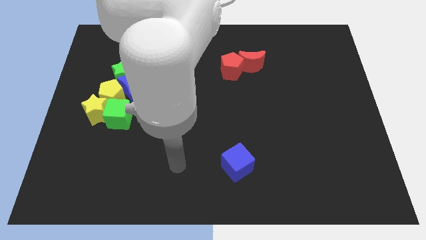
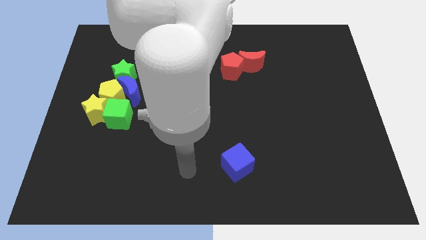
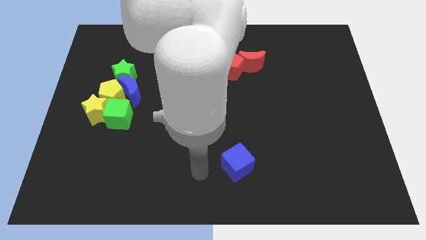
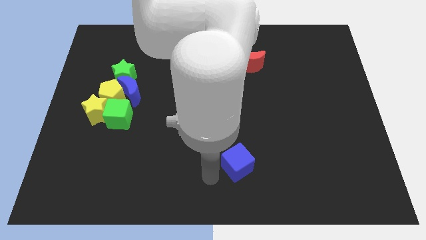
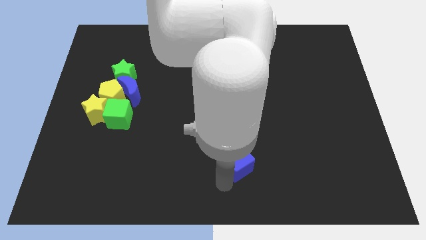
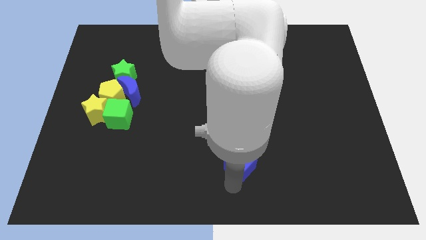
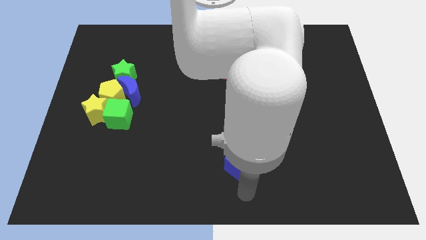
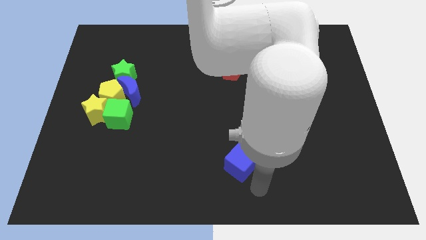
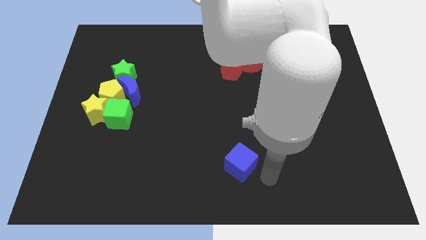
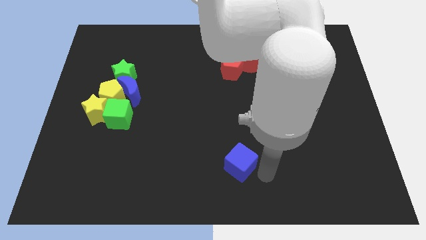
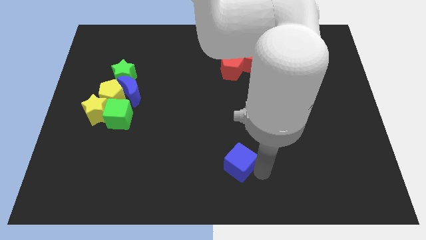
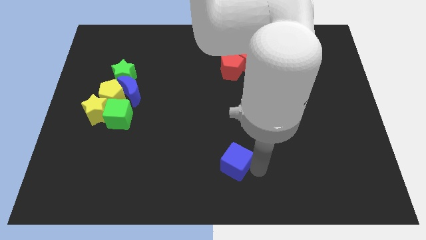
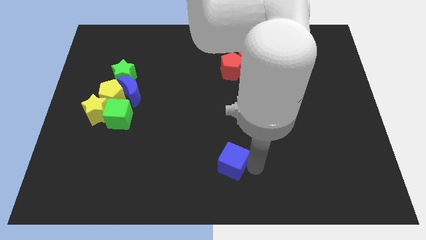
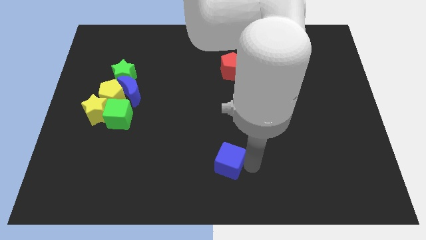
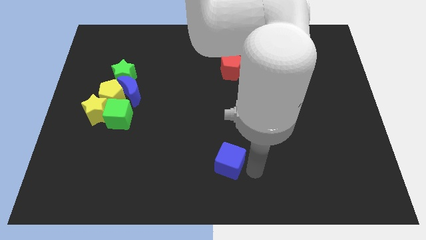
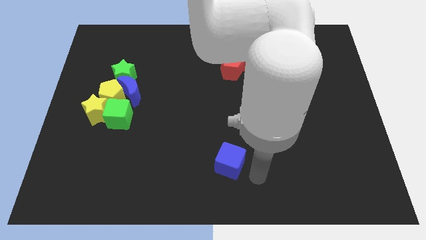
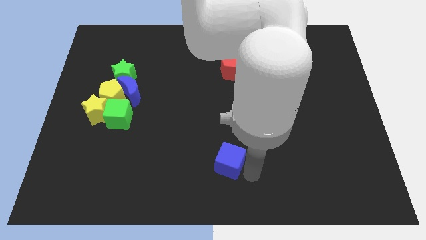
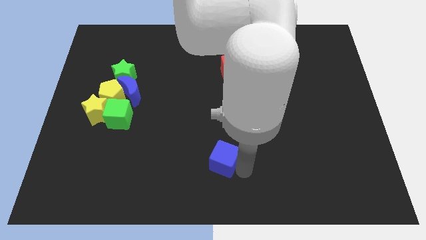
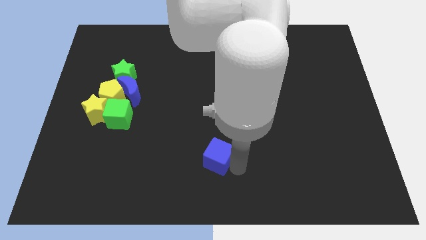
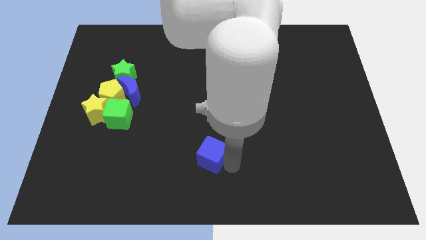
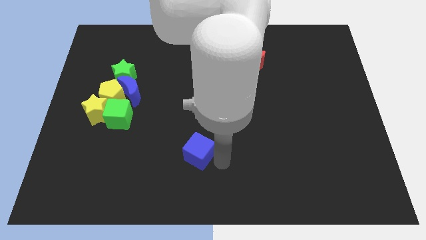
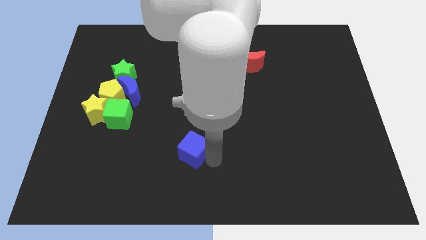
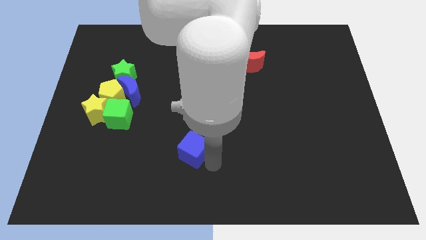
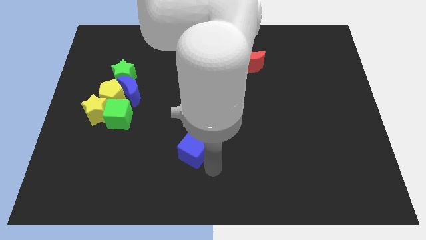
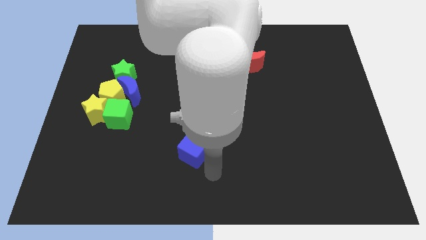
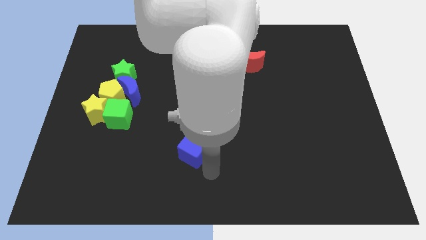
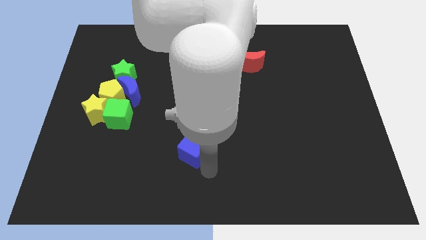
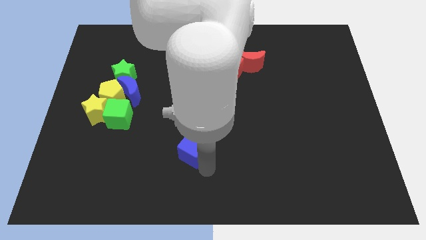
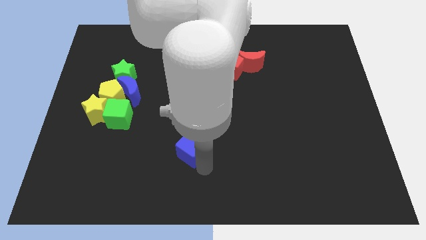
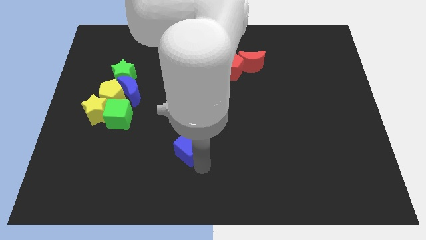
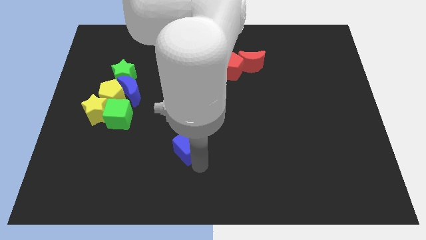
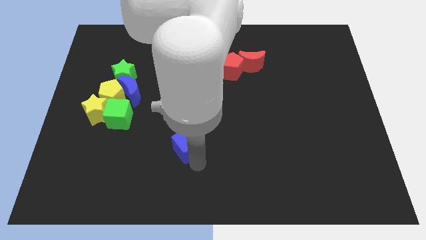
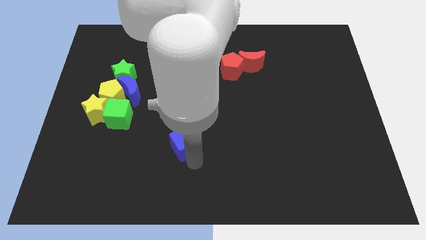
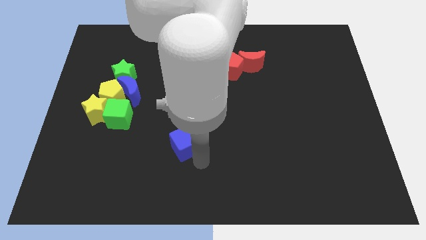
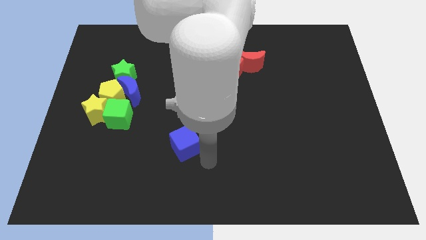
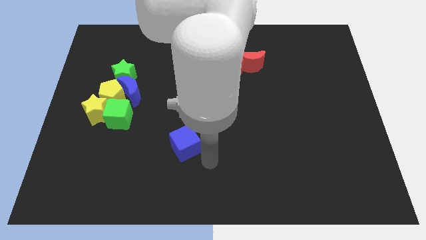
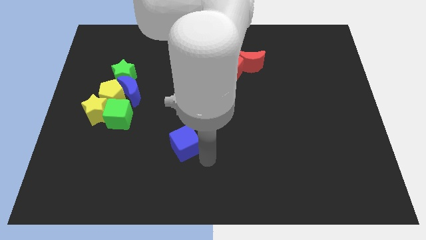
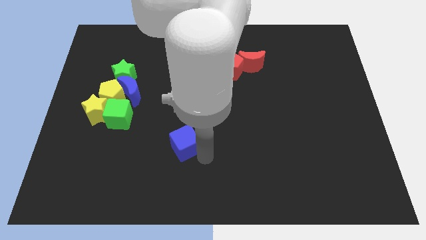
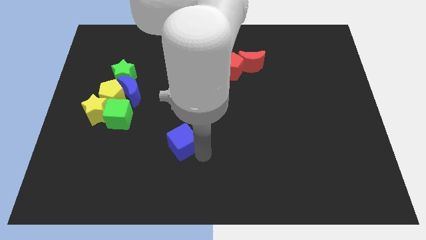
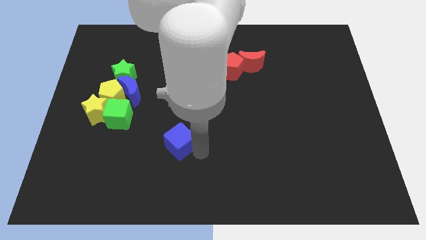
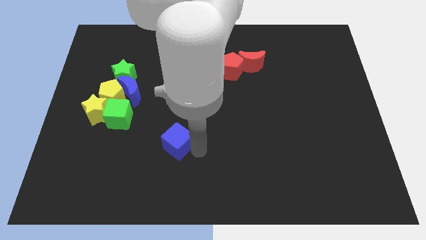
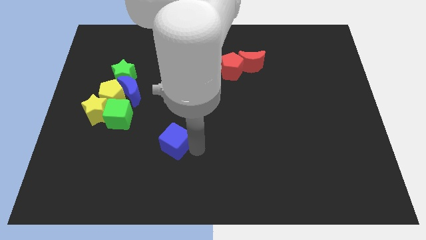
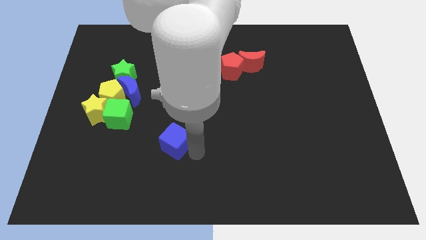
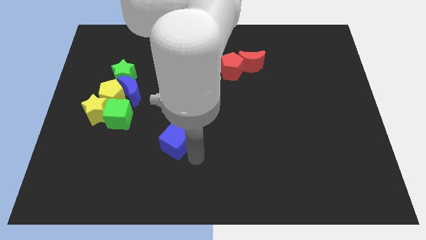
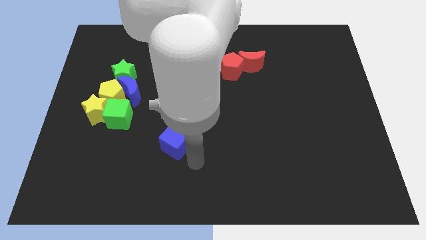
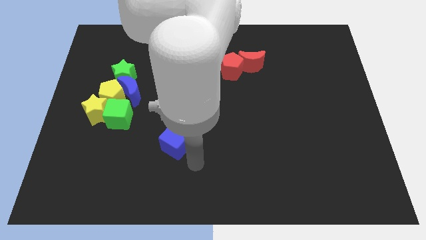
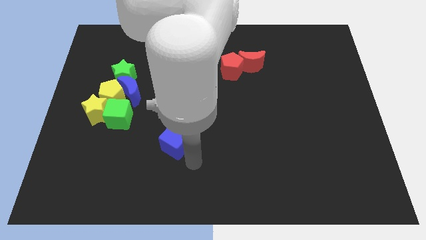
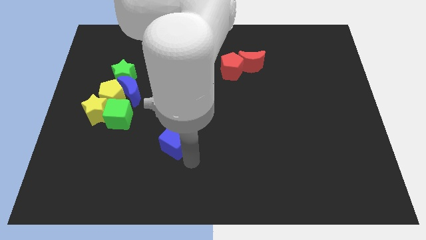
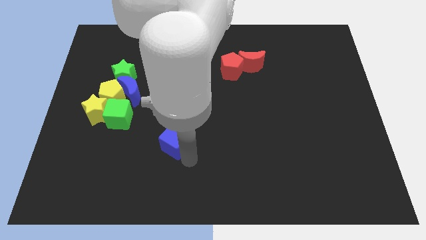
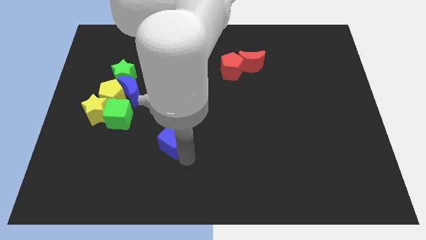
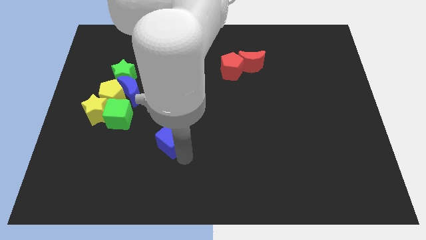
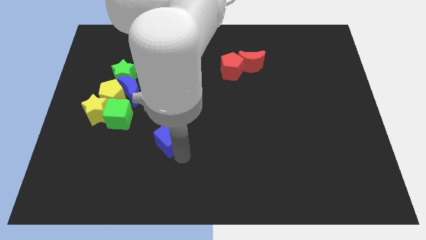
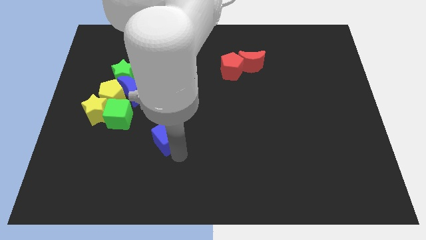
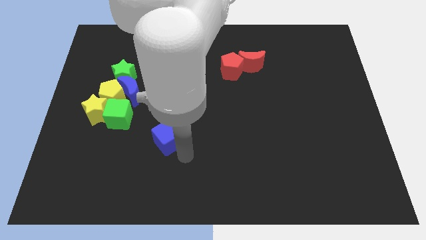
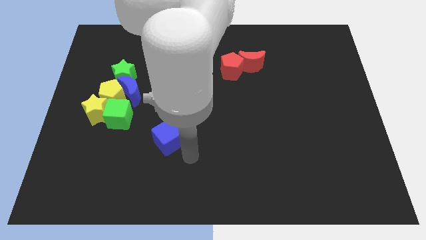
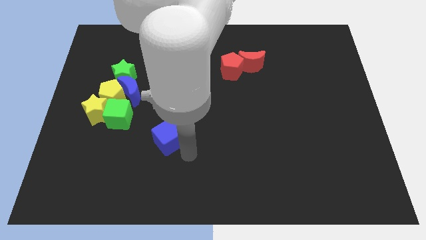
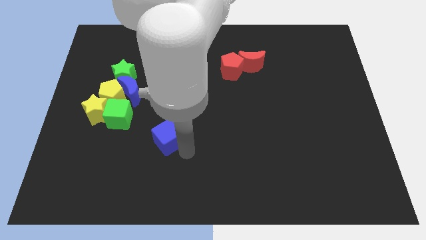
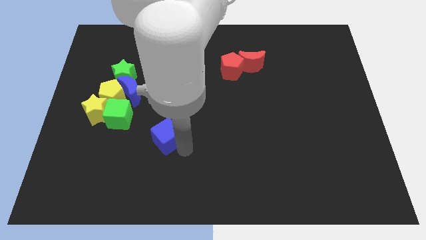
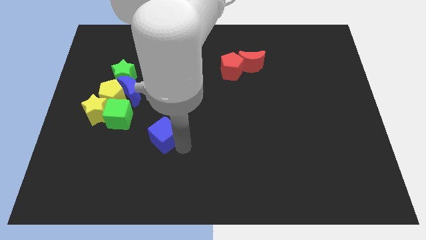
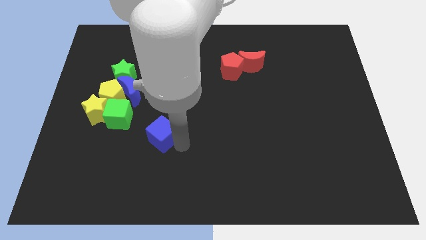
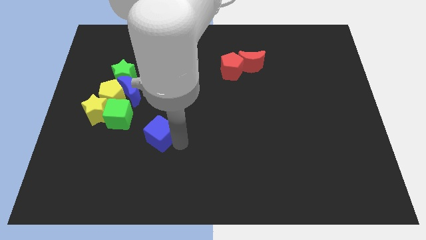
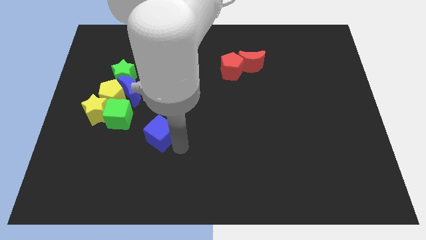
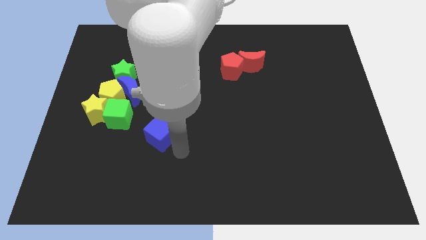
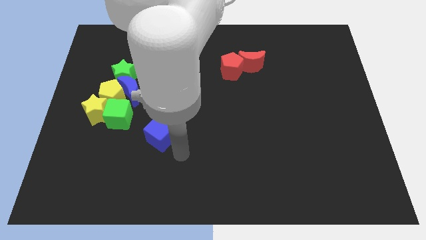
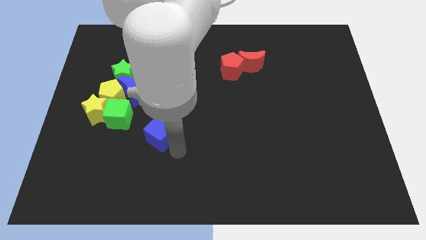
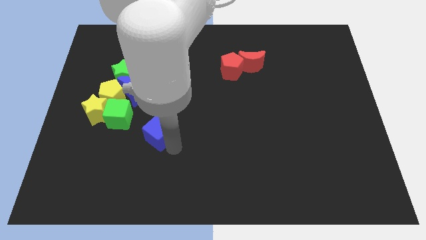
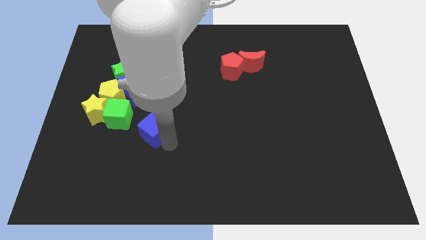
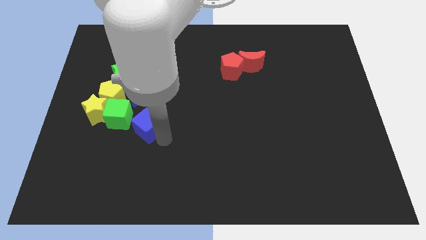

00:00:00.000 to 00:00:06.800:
slide the blue cube to the bottom right side of the yellow pentagon

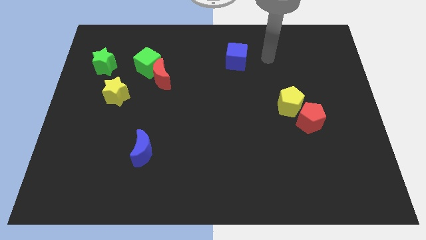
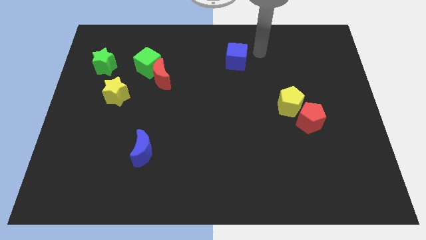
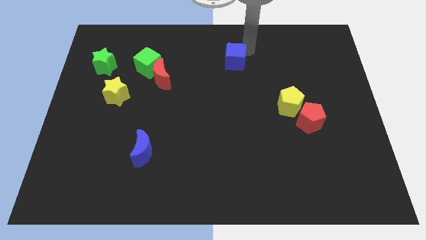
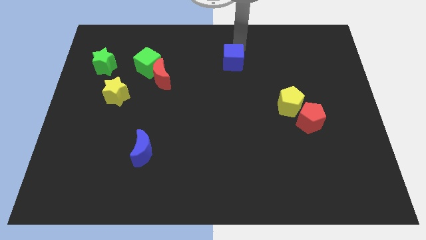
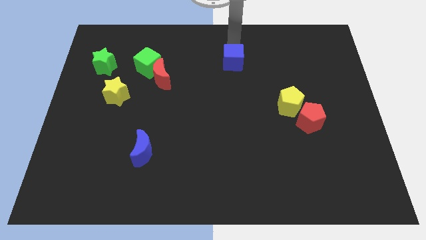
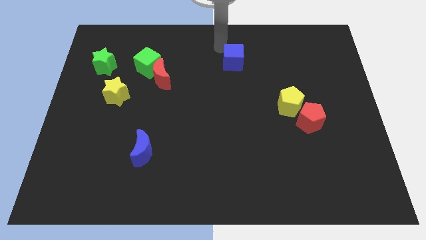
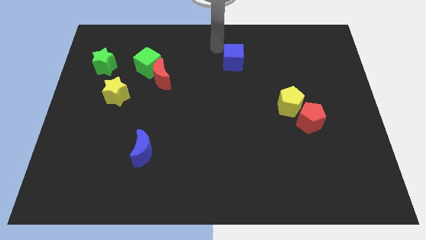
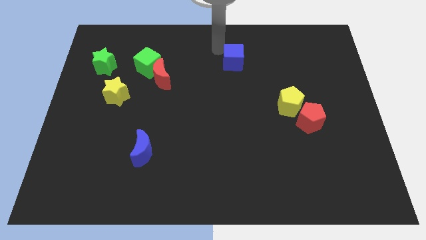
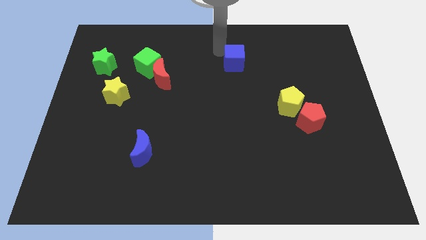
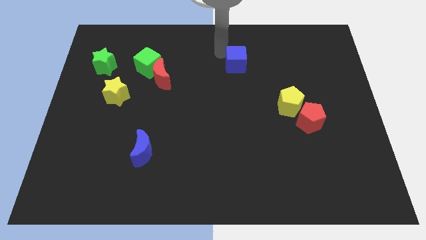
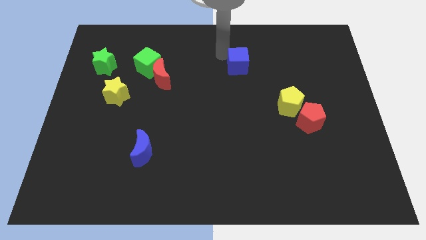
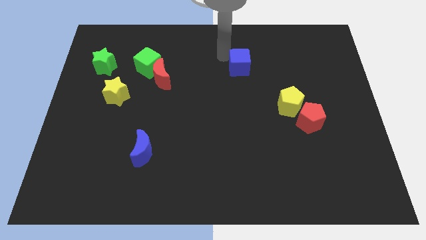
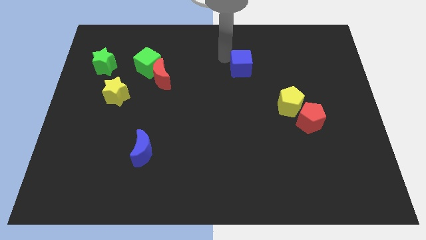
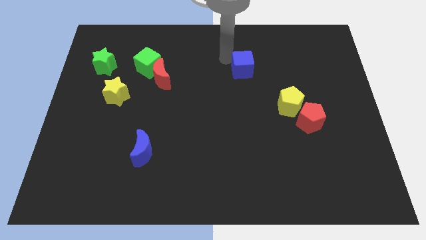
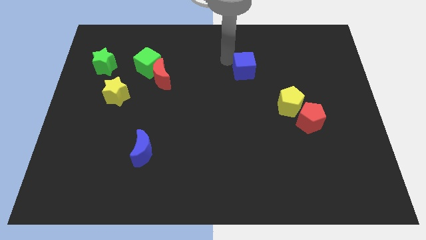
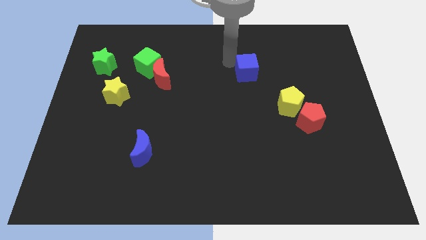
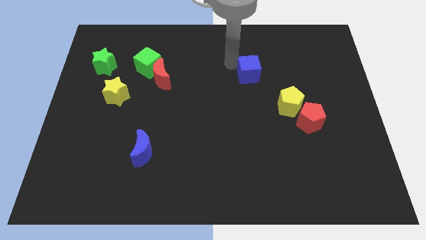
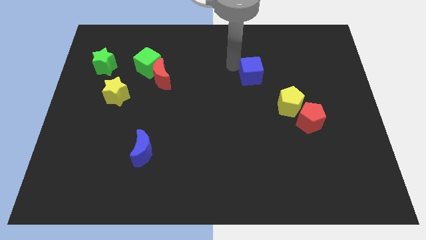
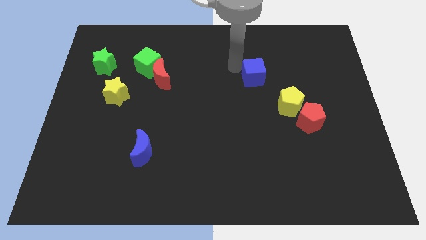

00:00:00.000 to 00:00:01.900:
put the blue cube to the top left side of the yellow pentagon
